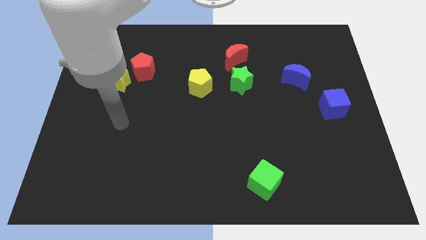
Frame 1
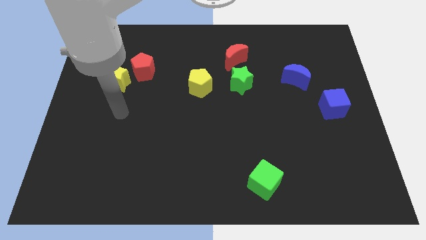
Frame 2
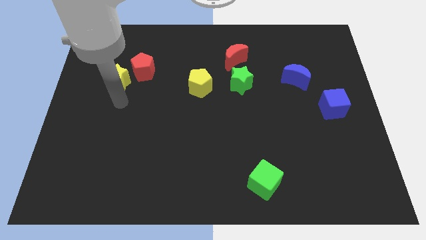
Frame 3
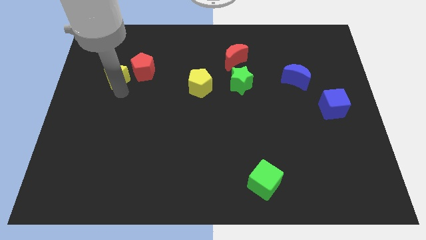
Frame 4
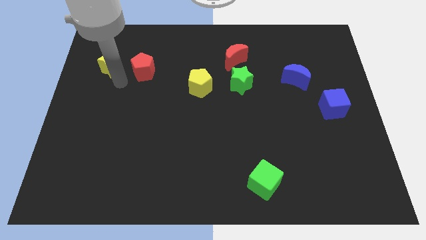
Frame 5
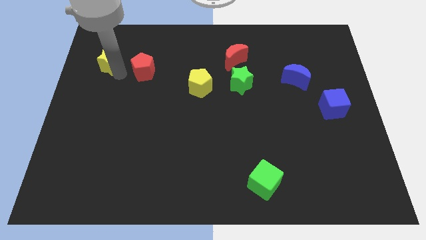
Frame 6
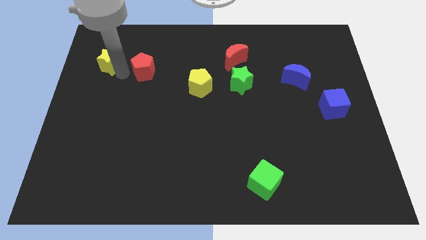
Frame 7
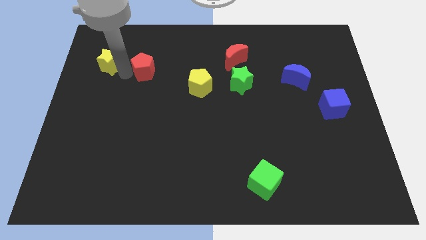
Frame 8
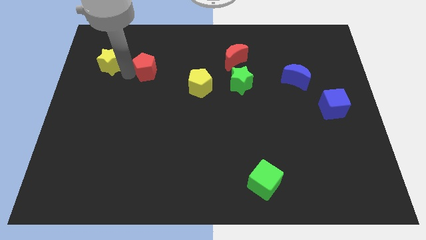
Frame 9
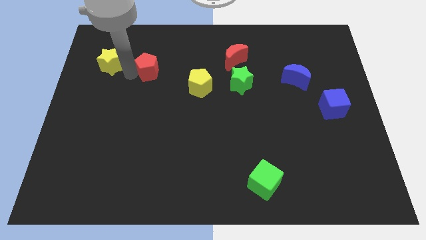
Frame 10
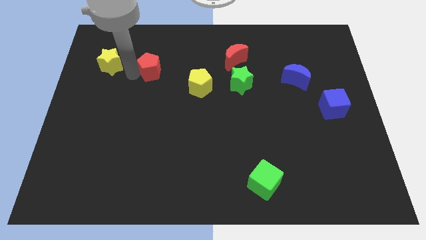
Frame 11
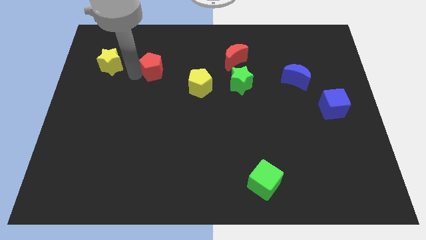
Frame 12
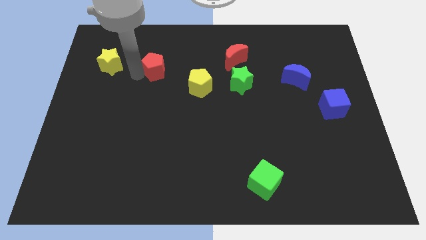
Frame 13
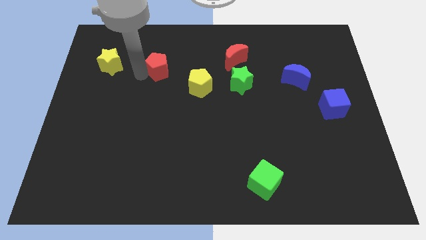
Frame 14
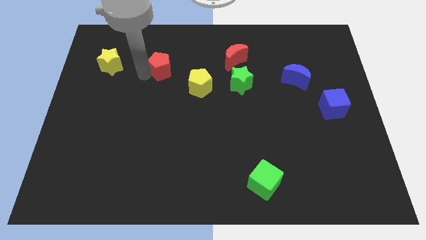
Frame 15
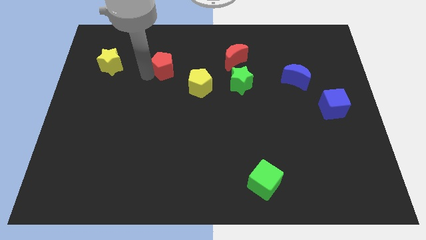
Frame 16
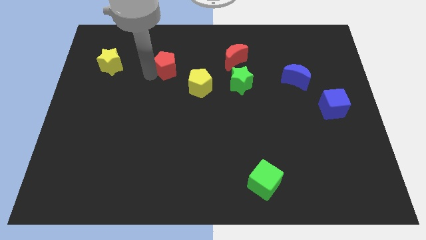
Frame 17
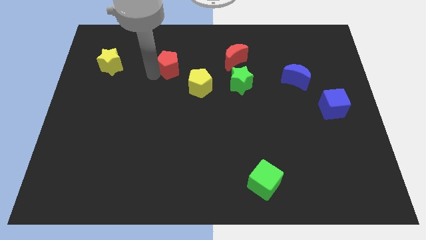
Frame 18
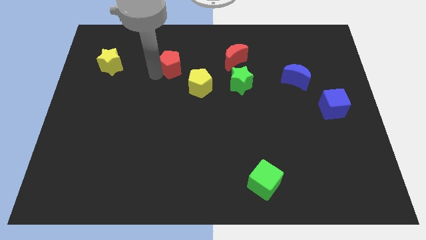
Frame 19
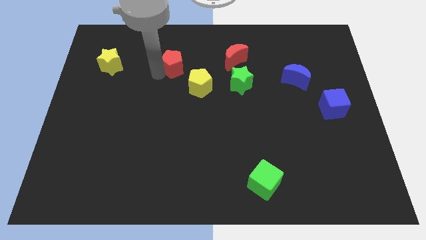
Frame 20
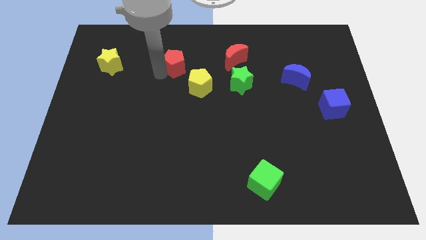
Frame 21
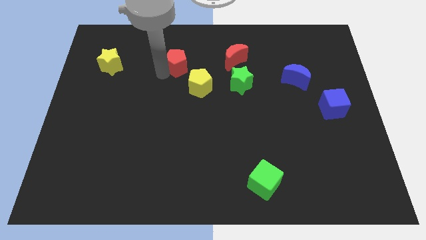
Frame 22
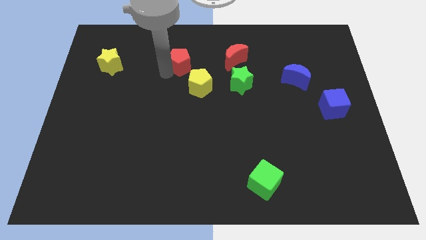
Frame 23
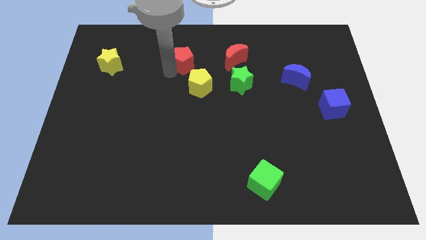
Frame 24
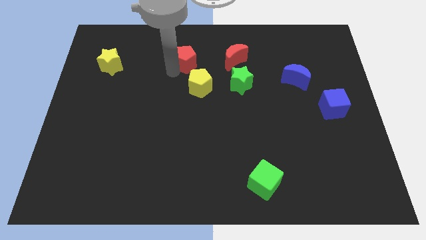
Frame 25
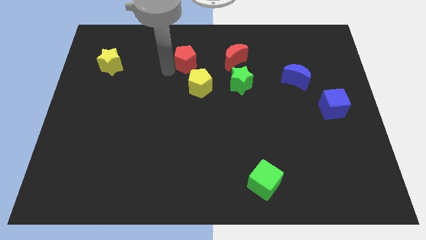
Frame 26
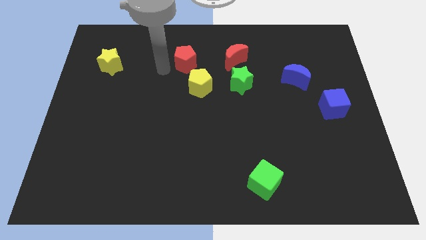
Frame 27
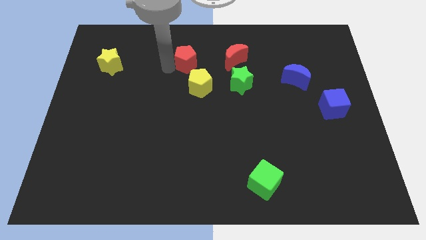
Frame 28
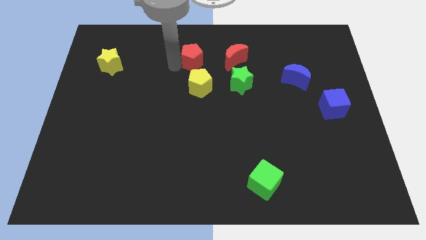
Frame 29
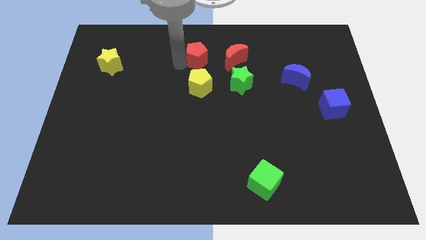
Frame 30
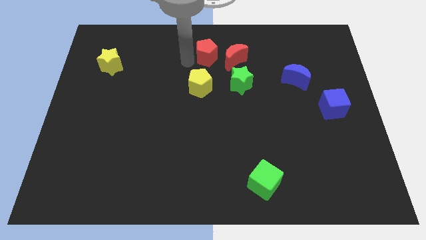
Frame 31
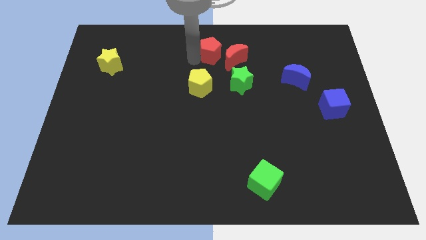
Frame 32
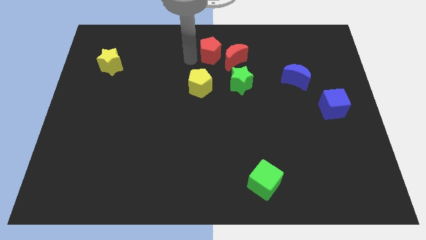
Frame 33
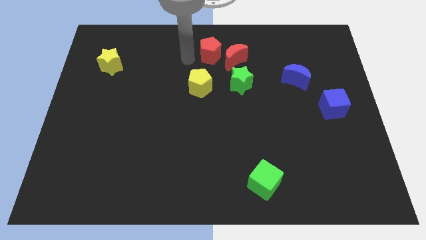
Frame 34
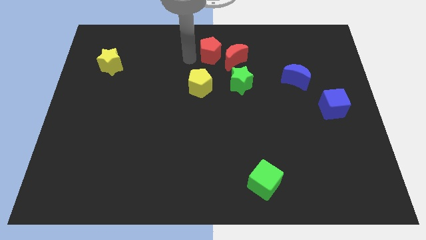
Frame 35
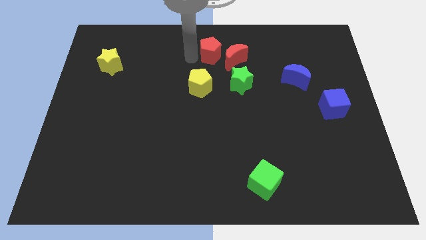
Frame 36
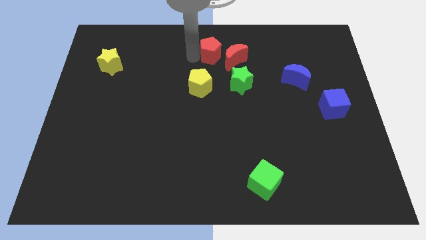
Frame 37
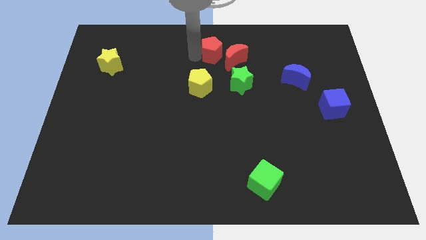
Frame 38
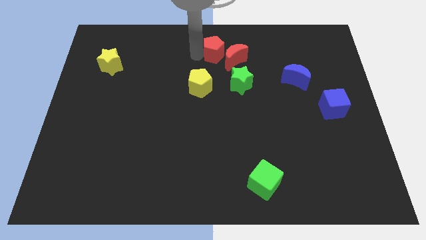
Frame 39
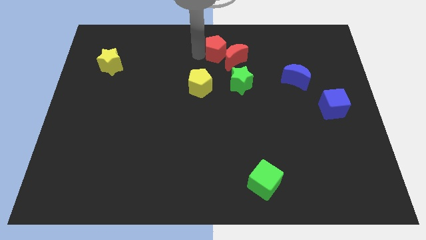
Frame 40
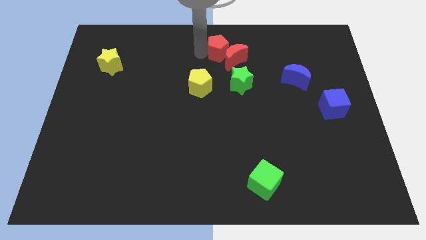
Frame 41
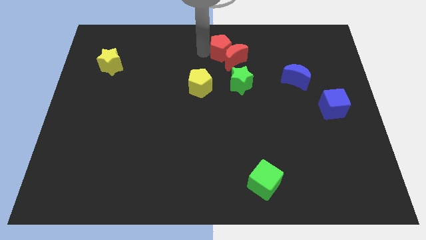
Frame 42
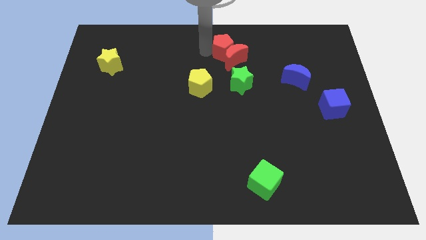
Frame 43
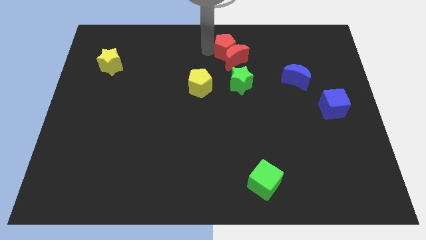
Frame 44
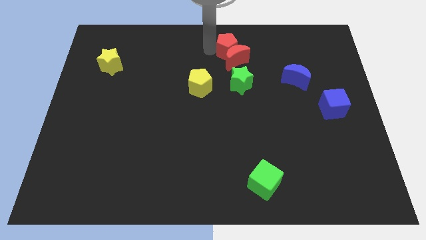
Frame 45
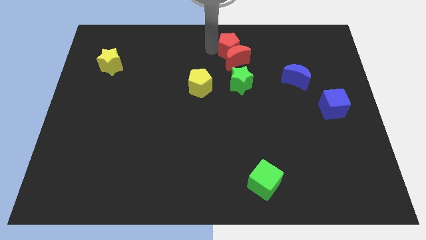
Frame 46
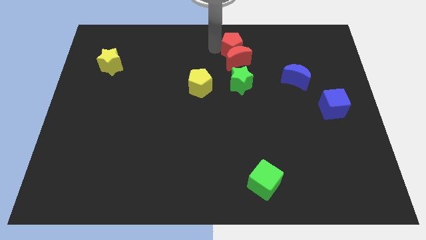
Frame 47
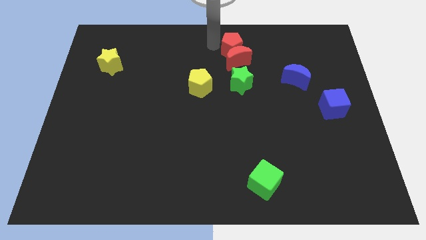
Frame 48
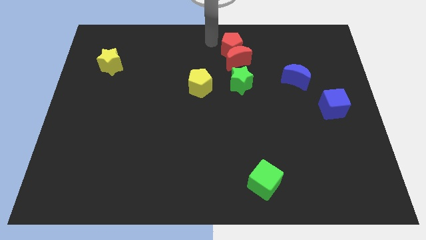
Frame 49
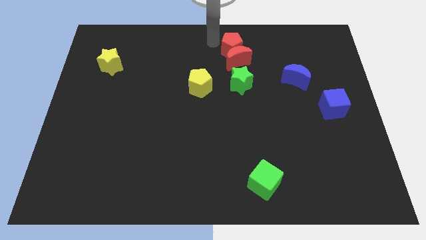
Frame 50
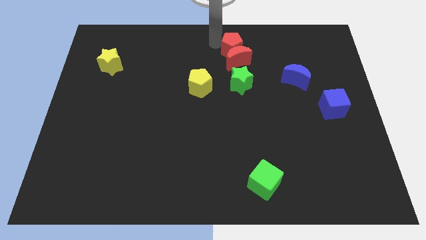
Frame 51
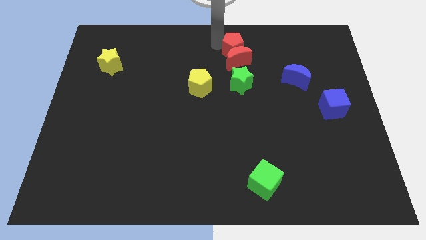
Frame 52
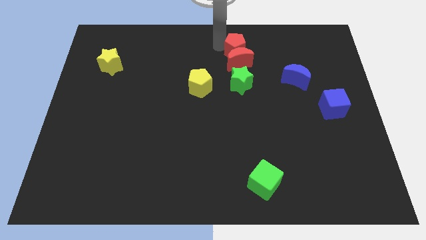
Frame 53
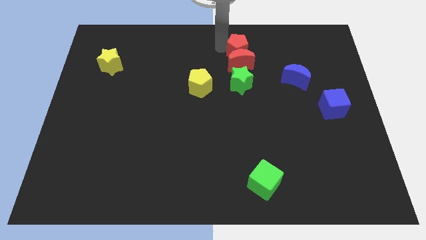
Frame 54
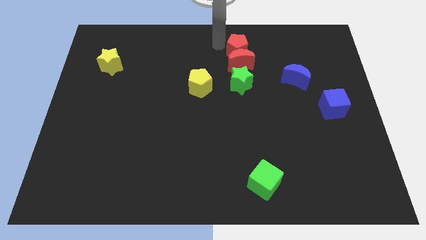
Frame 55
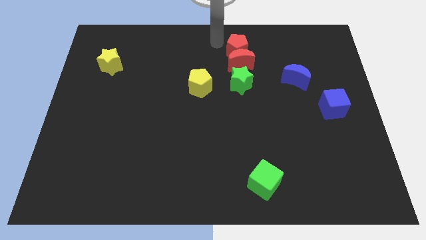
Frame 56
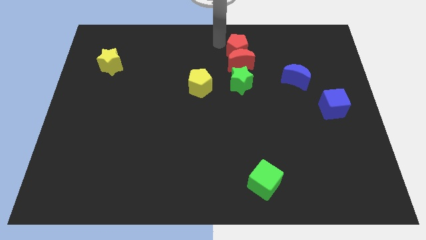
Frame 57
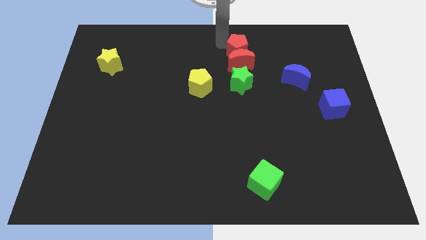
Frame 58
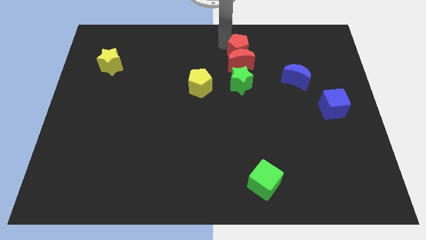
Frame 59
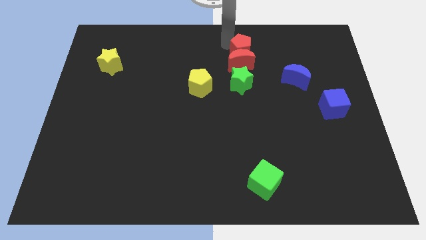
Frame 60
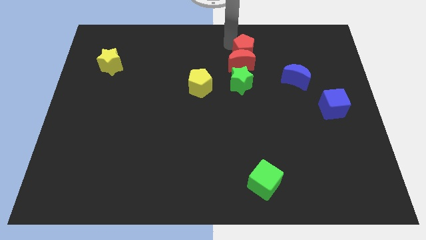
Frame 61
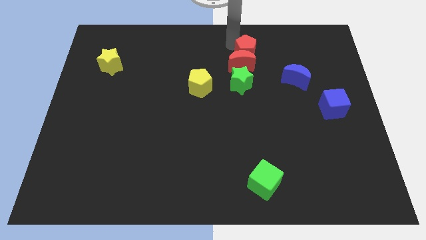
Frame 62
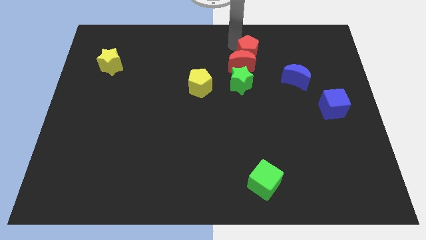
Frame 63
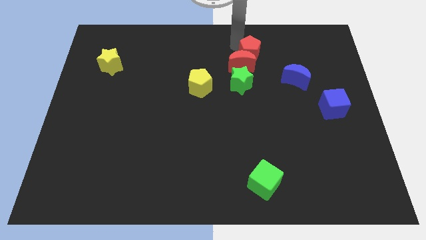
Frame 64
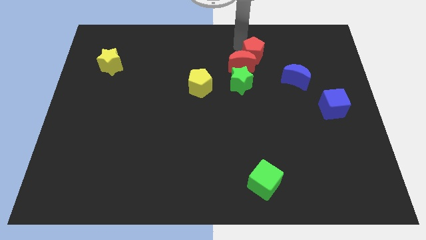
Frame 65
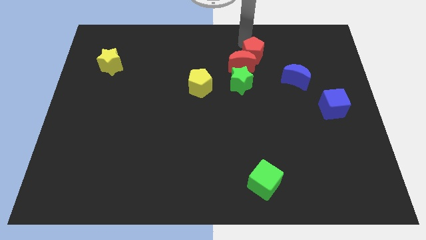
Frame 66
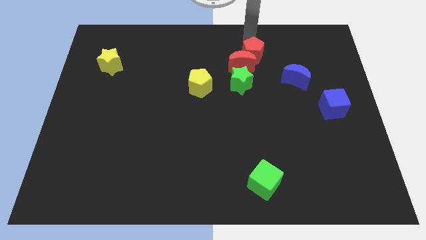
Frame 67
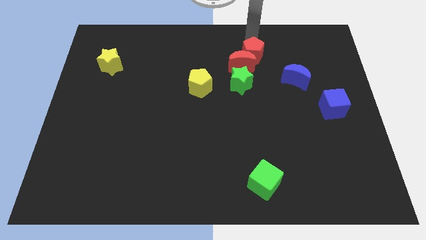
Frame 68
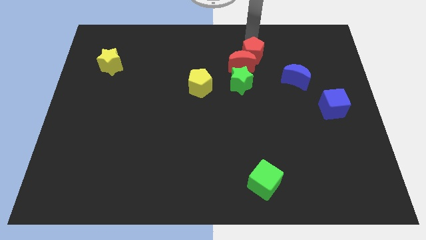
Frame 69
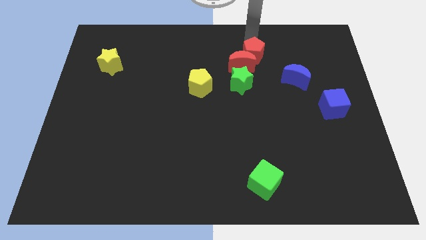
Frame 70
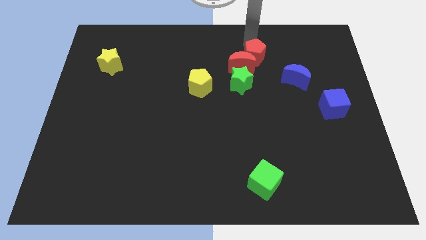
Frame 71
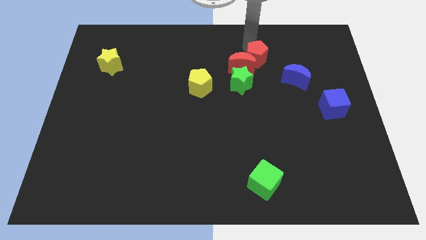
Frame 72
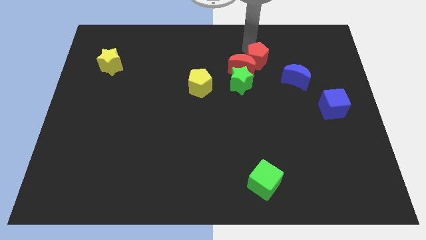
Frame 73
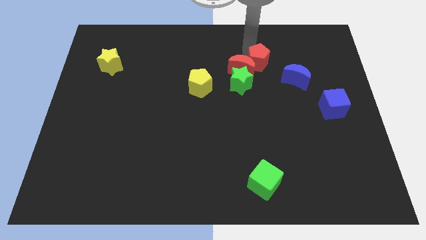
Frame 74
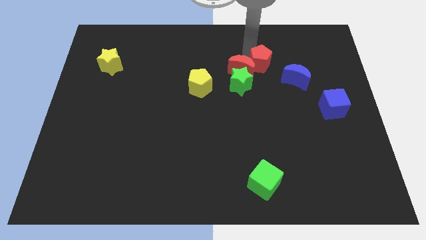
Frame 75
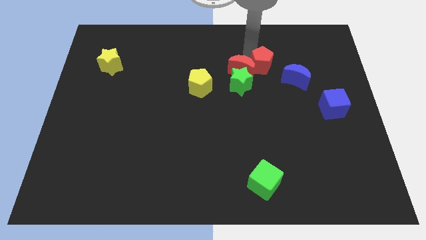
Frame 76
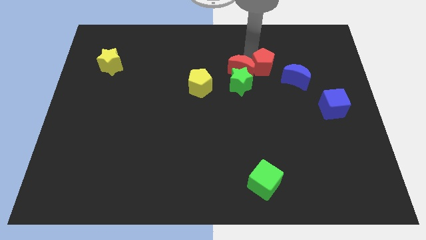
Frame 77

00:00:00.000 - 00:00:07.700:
move the red pentagon to the left side of the blue moon
